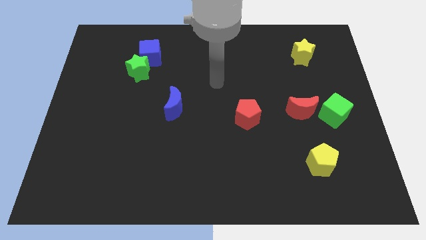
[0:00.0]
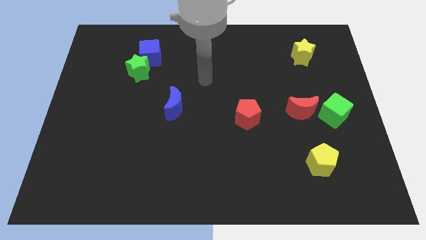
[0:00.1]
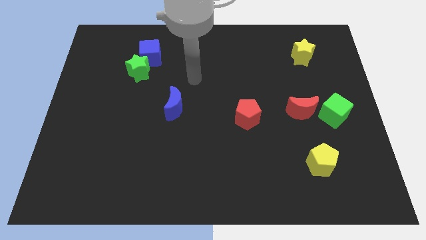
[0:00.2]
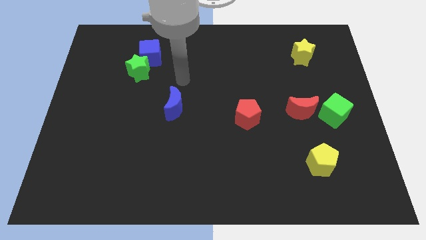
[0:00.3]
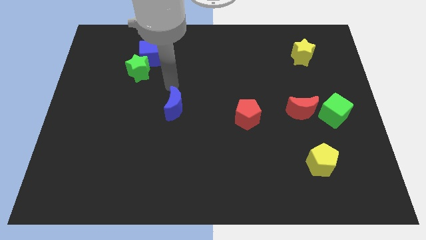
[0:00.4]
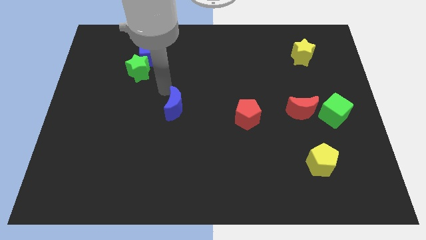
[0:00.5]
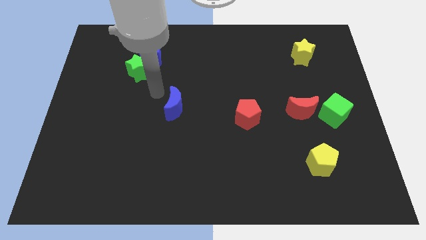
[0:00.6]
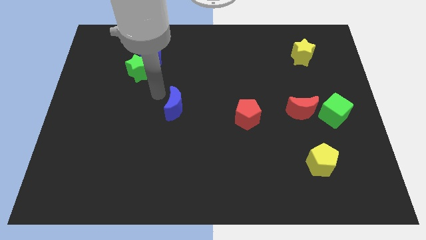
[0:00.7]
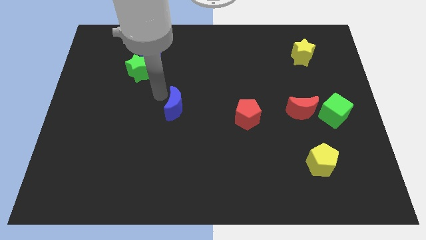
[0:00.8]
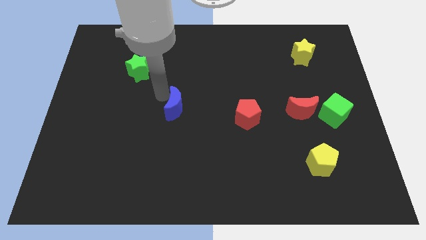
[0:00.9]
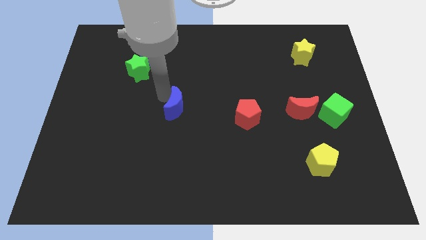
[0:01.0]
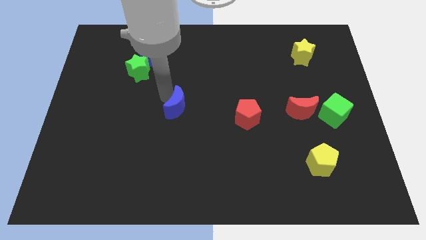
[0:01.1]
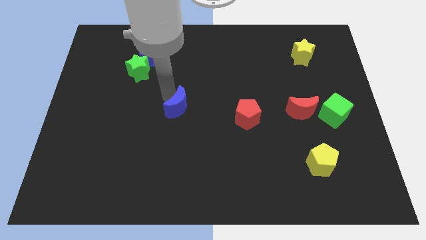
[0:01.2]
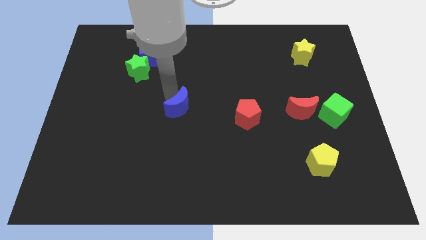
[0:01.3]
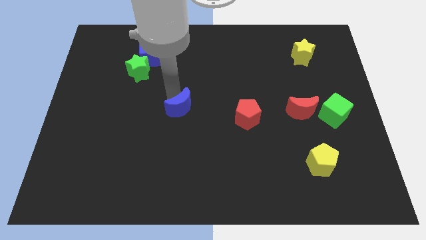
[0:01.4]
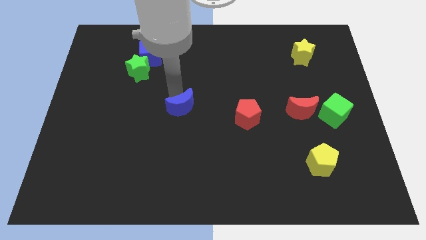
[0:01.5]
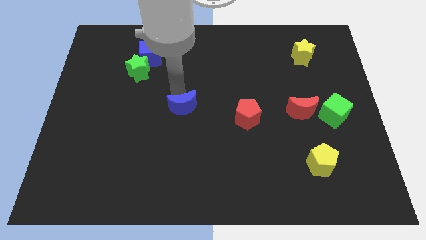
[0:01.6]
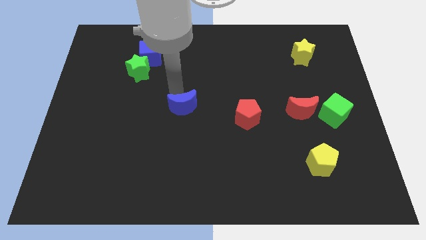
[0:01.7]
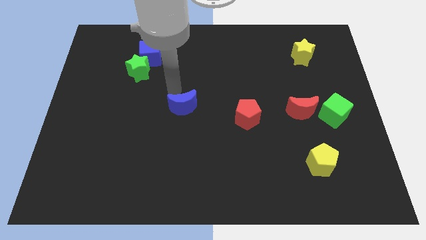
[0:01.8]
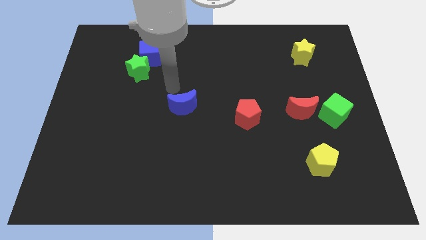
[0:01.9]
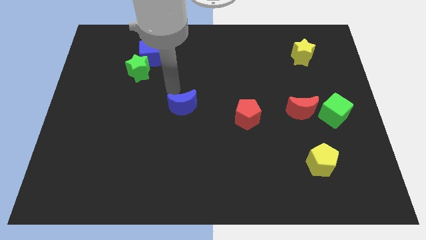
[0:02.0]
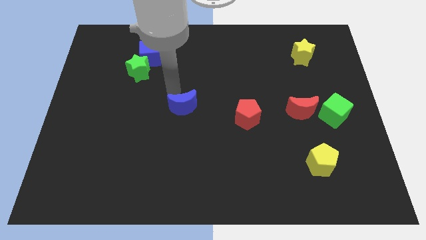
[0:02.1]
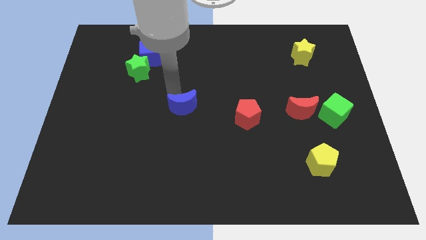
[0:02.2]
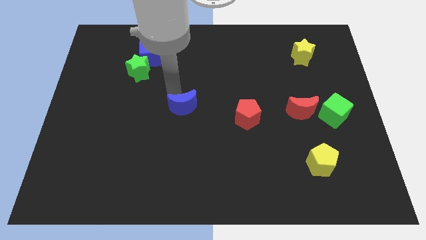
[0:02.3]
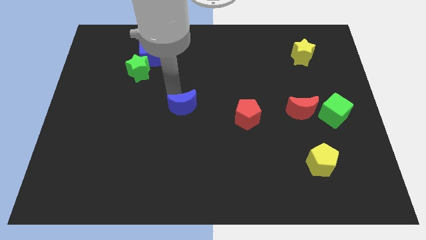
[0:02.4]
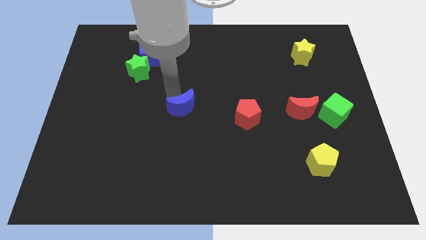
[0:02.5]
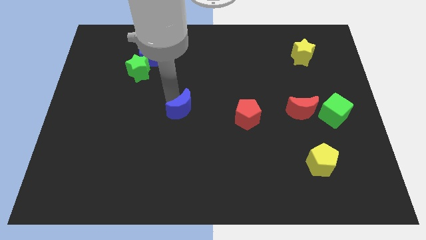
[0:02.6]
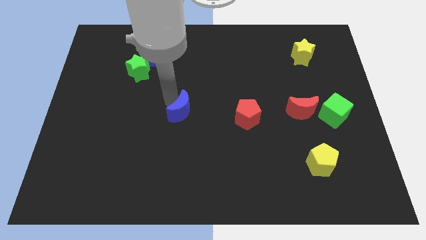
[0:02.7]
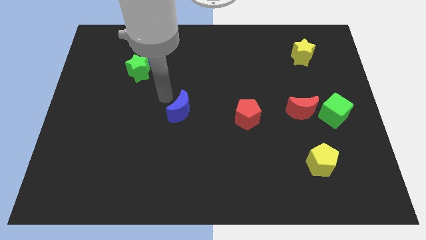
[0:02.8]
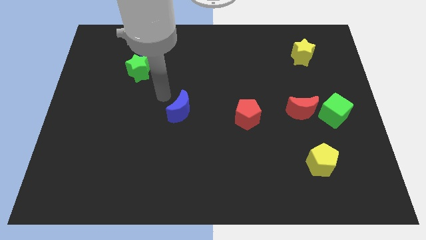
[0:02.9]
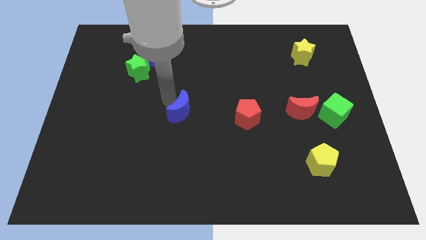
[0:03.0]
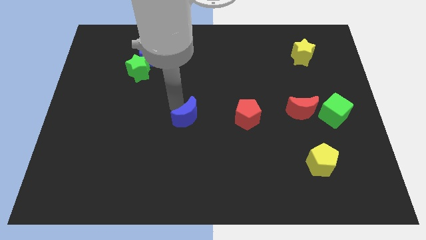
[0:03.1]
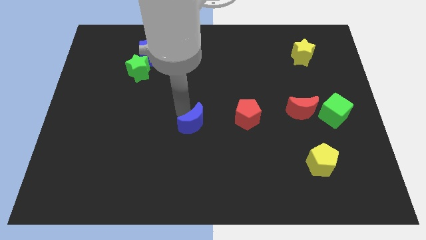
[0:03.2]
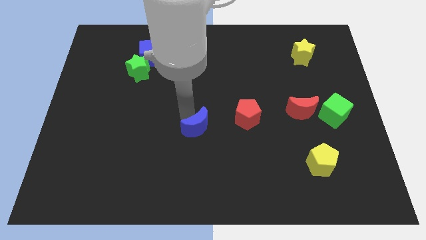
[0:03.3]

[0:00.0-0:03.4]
push the blue moon downwards and to the right diagonally a little bit

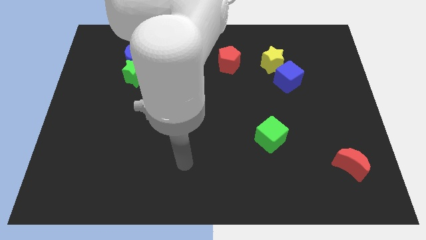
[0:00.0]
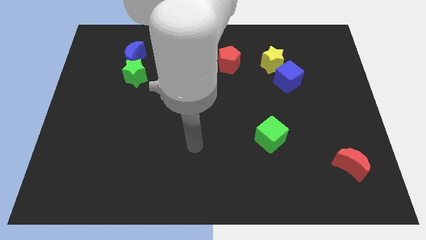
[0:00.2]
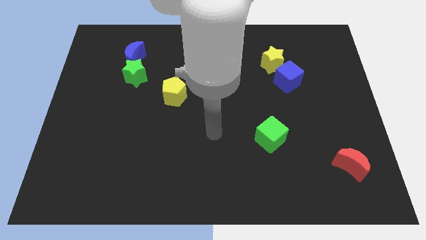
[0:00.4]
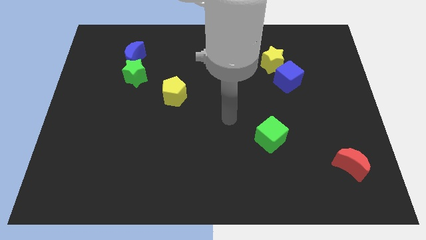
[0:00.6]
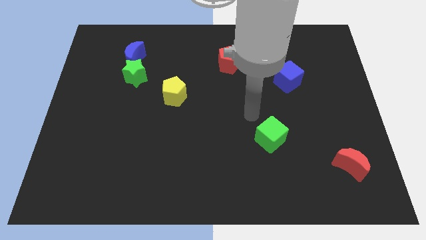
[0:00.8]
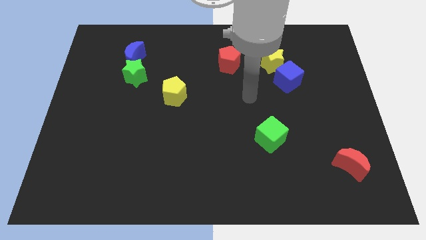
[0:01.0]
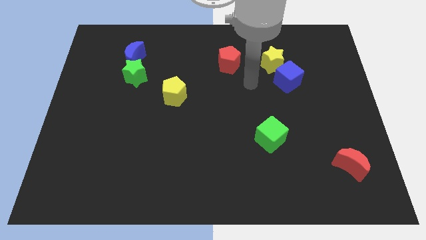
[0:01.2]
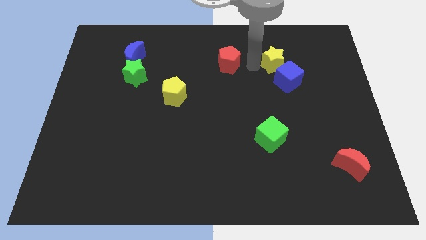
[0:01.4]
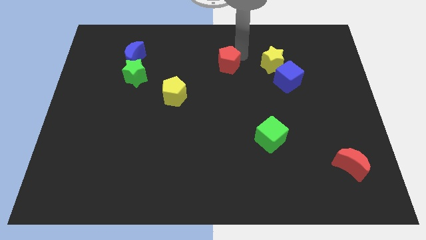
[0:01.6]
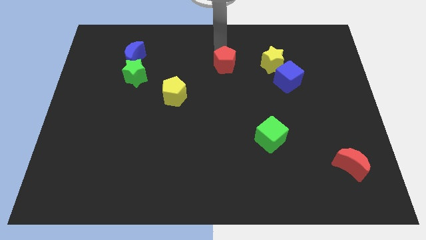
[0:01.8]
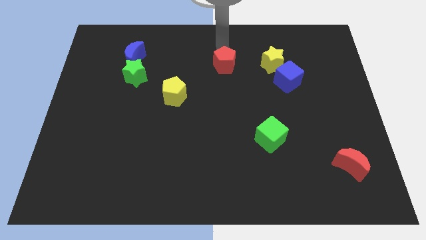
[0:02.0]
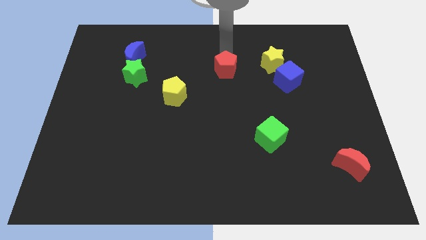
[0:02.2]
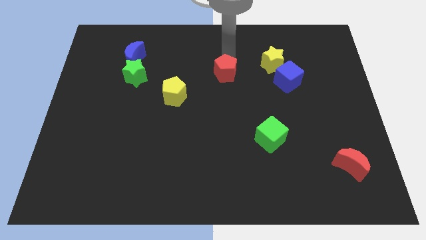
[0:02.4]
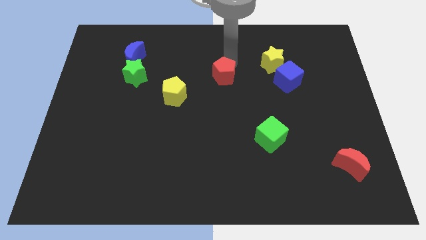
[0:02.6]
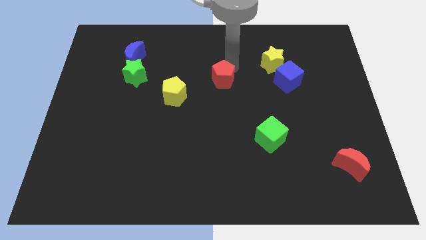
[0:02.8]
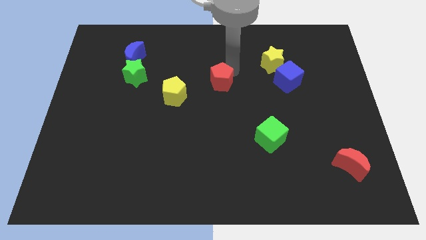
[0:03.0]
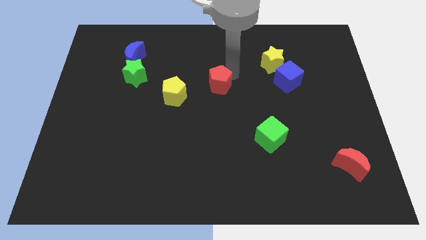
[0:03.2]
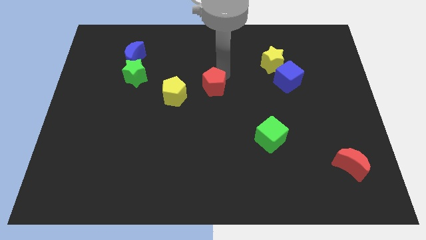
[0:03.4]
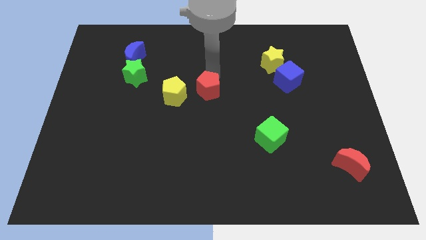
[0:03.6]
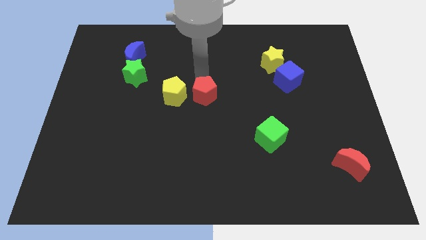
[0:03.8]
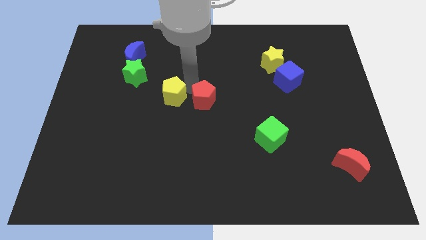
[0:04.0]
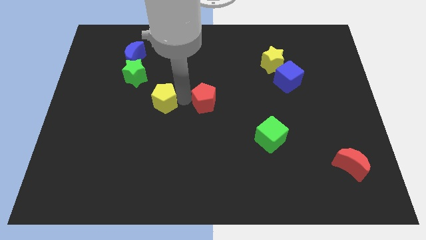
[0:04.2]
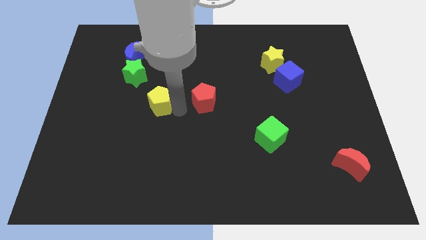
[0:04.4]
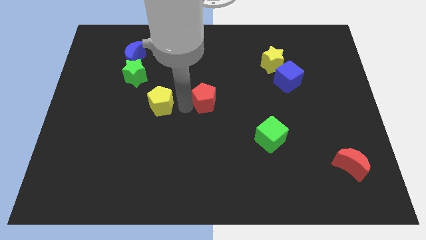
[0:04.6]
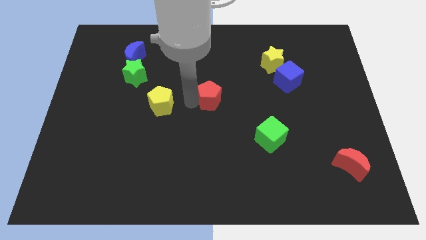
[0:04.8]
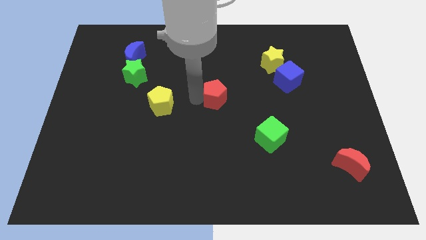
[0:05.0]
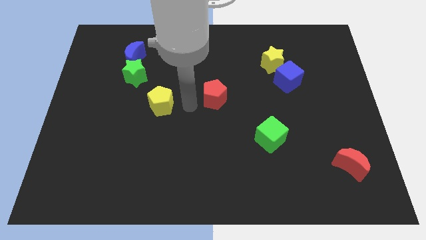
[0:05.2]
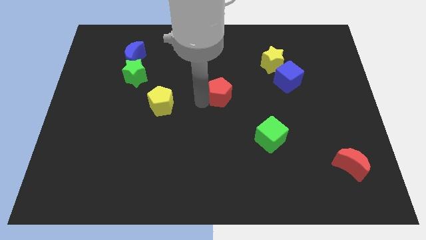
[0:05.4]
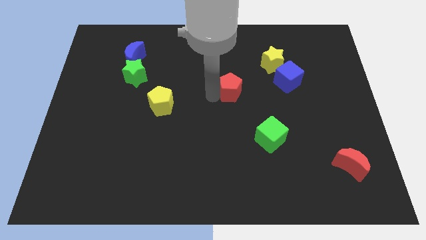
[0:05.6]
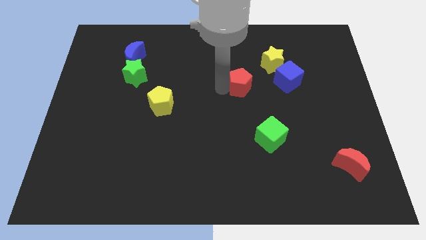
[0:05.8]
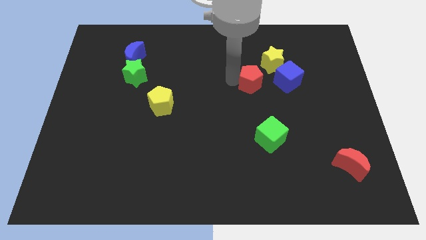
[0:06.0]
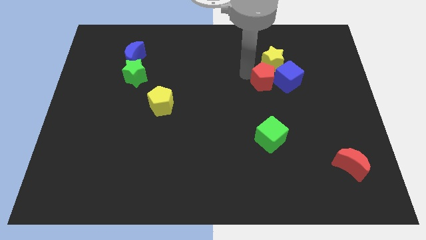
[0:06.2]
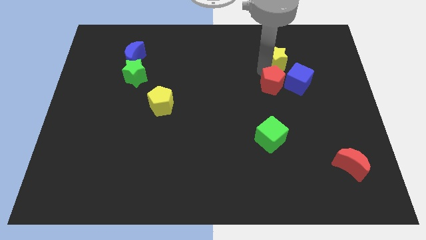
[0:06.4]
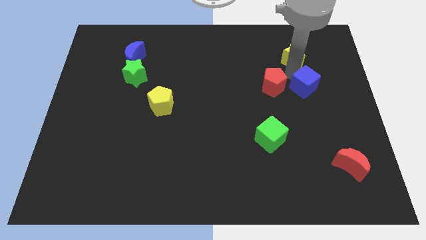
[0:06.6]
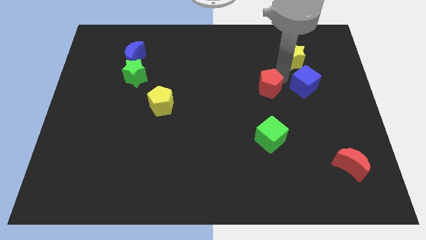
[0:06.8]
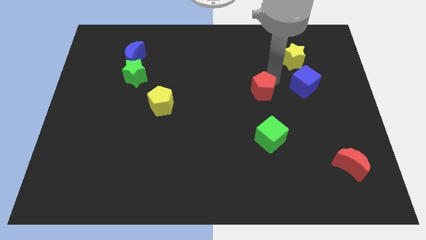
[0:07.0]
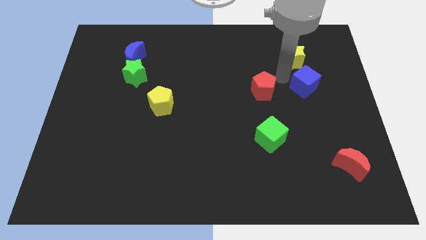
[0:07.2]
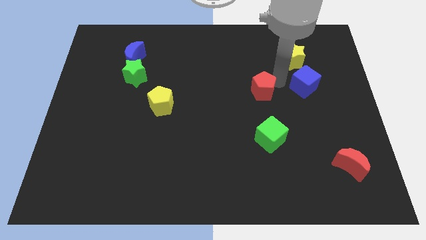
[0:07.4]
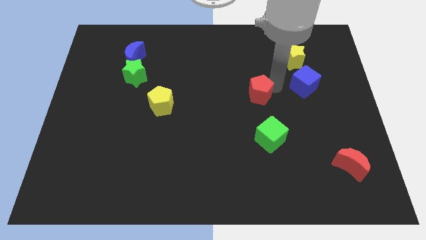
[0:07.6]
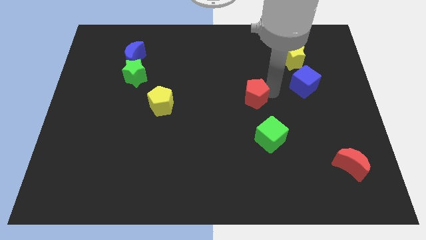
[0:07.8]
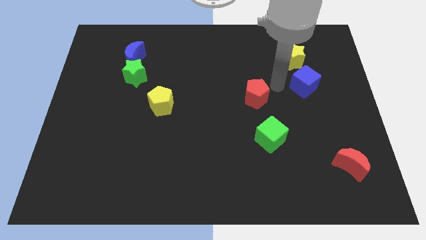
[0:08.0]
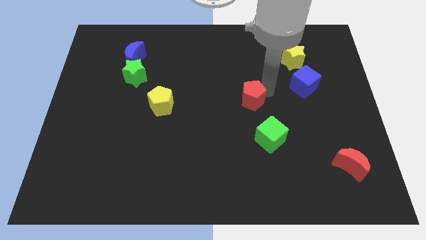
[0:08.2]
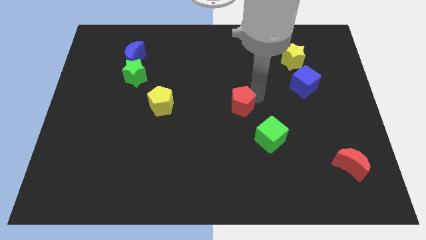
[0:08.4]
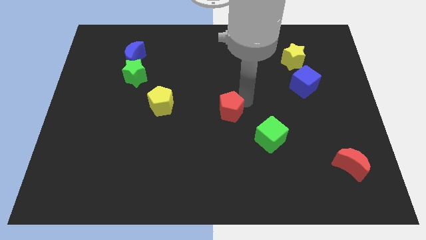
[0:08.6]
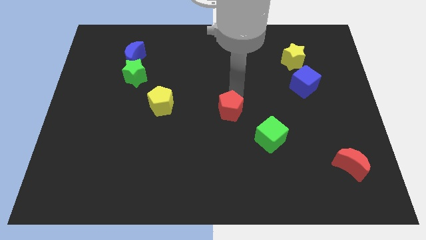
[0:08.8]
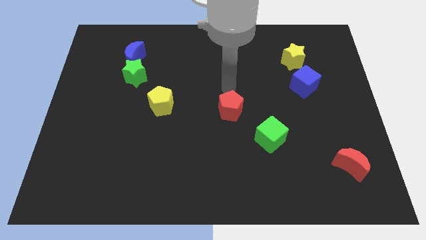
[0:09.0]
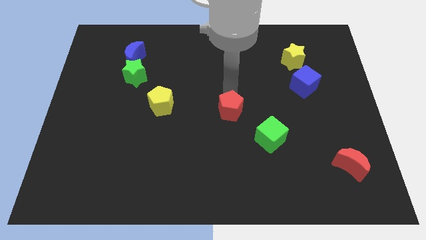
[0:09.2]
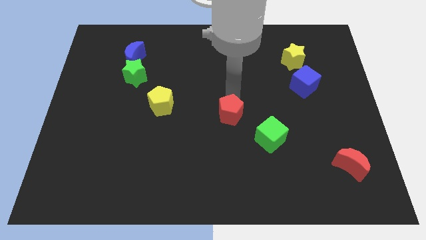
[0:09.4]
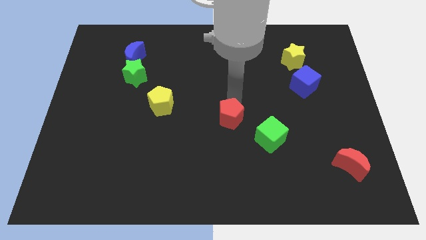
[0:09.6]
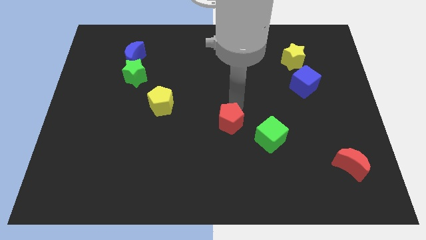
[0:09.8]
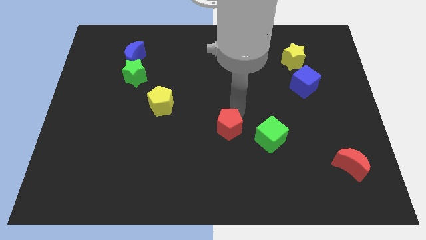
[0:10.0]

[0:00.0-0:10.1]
move the red pentagon down
